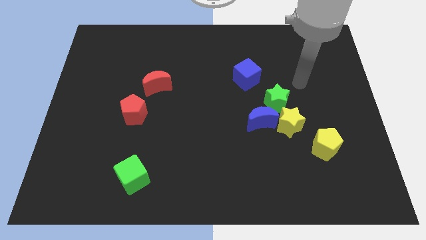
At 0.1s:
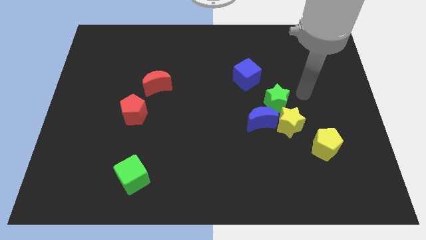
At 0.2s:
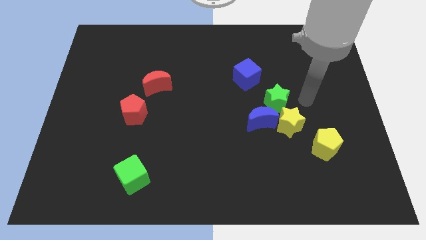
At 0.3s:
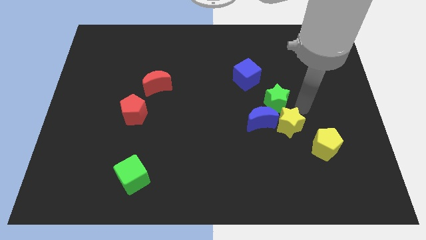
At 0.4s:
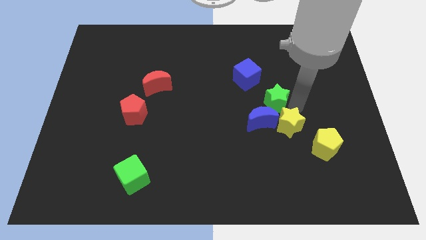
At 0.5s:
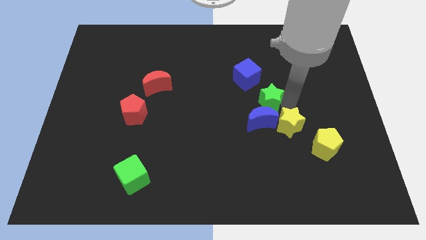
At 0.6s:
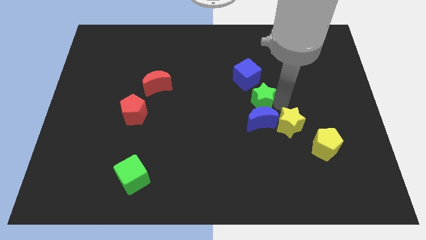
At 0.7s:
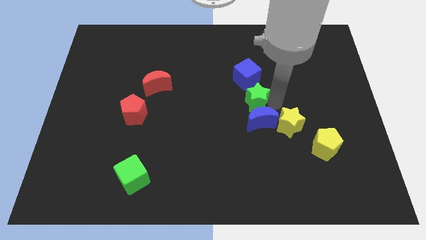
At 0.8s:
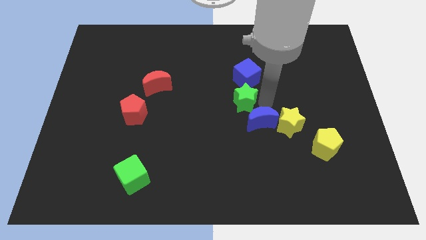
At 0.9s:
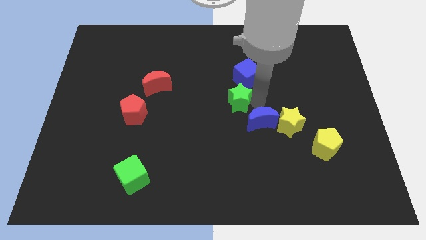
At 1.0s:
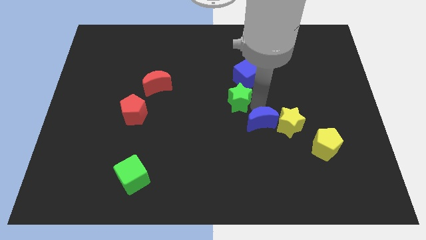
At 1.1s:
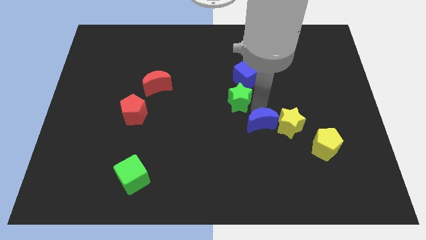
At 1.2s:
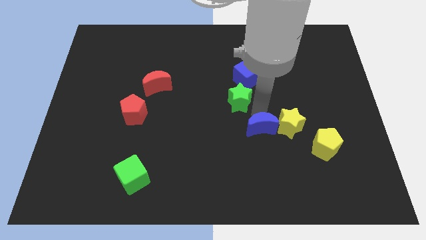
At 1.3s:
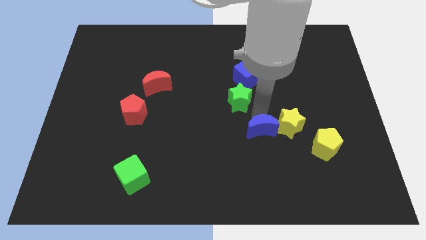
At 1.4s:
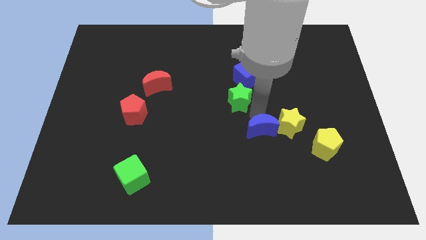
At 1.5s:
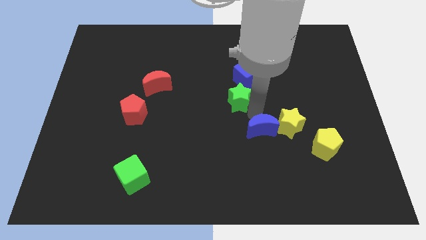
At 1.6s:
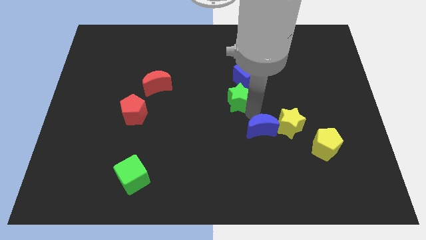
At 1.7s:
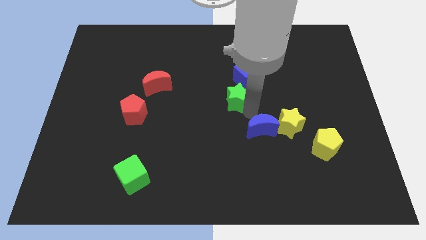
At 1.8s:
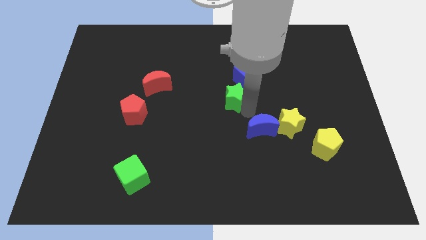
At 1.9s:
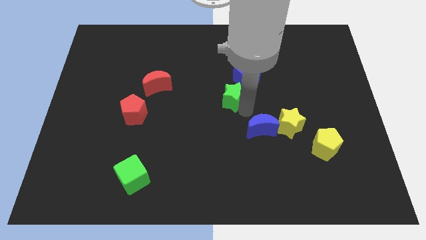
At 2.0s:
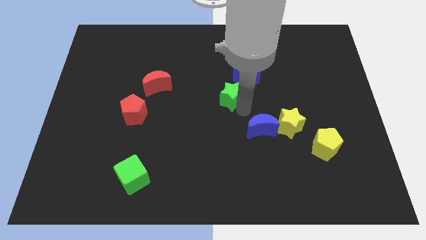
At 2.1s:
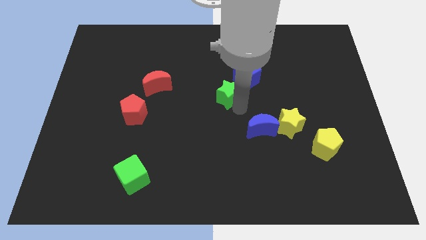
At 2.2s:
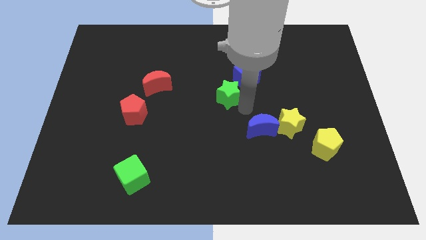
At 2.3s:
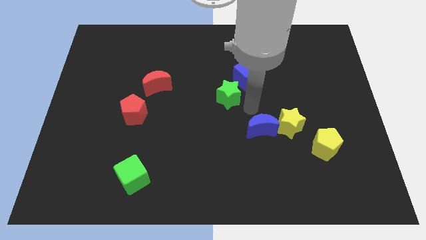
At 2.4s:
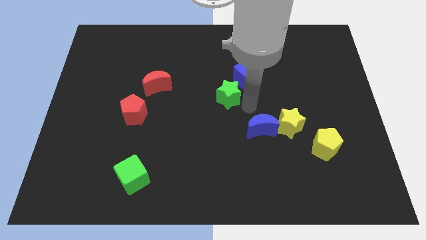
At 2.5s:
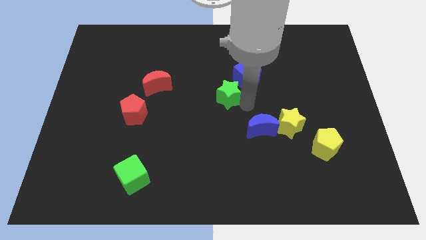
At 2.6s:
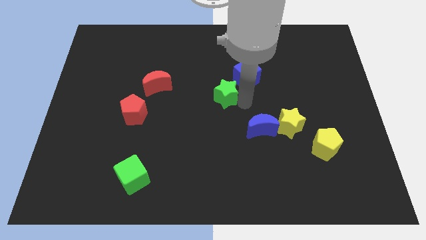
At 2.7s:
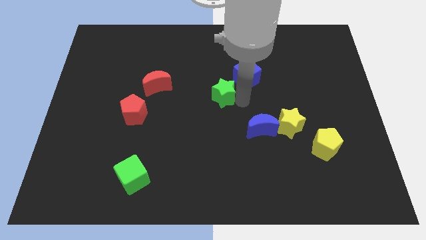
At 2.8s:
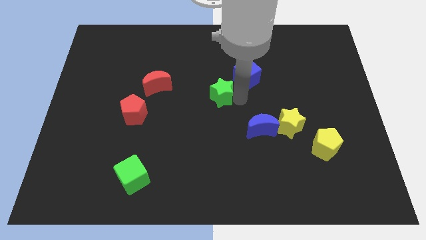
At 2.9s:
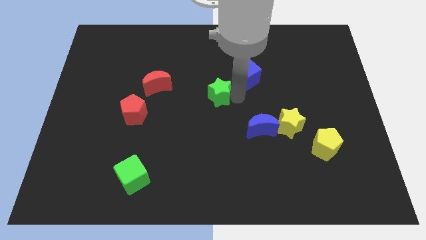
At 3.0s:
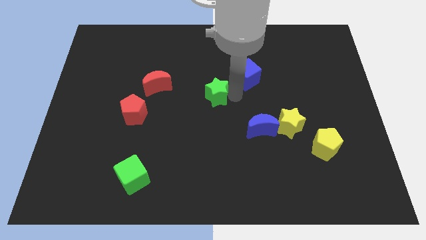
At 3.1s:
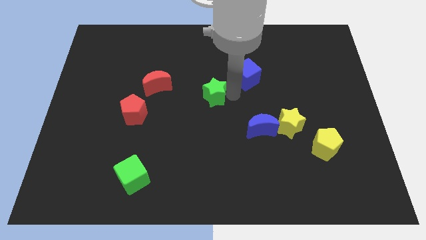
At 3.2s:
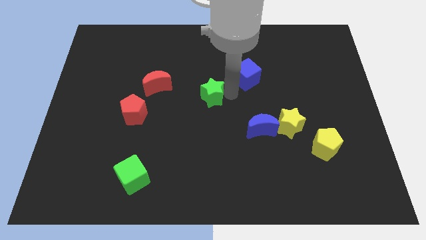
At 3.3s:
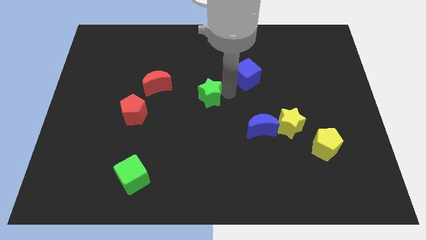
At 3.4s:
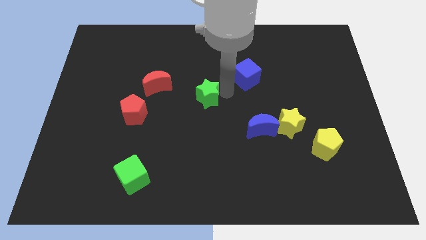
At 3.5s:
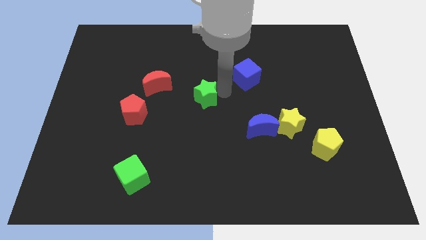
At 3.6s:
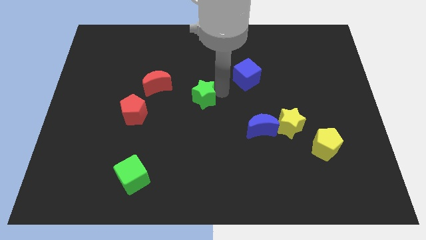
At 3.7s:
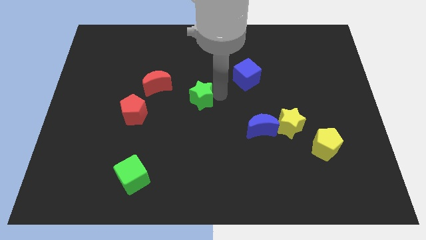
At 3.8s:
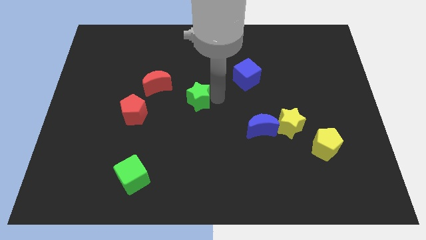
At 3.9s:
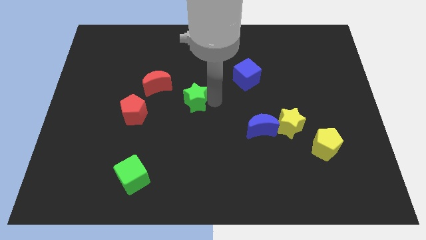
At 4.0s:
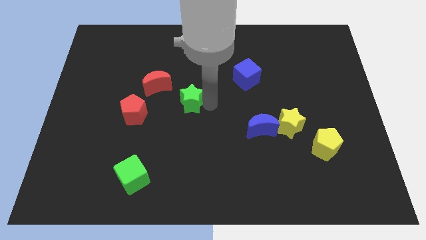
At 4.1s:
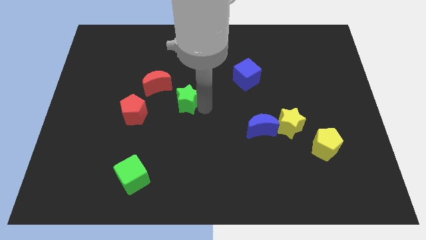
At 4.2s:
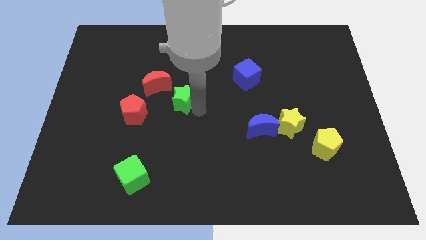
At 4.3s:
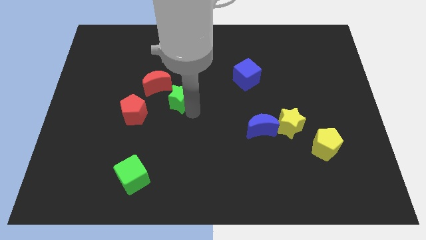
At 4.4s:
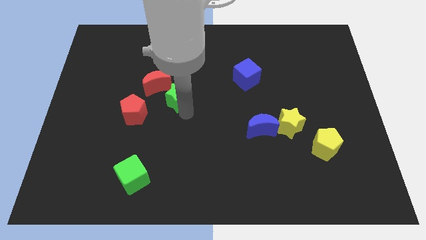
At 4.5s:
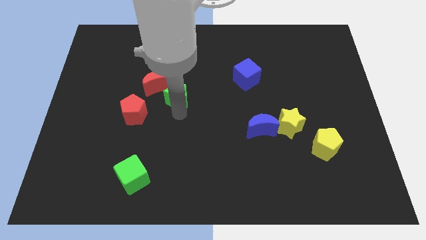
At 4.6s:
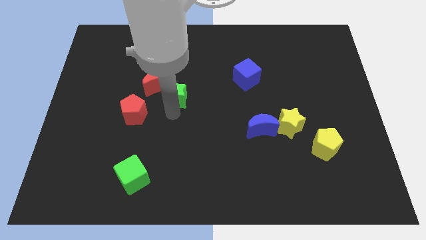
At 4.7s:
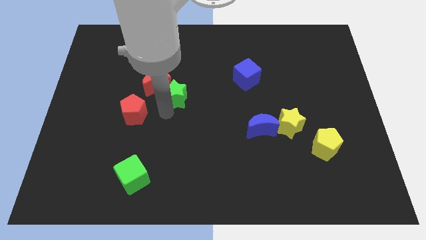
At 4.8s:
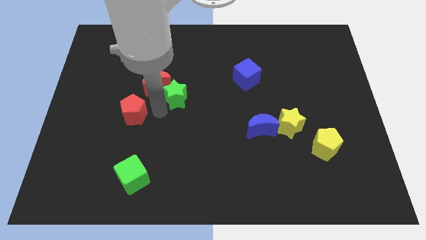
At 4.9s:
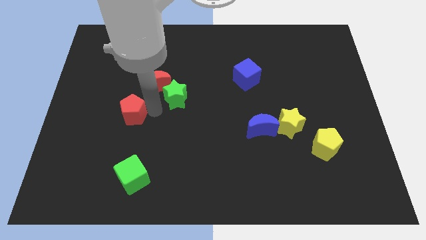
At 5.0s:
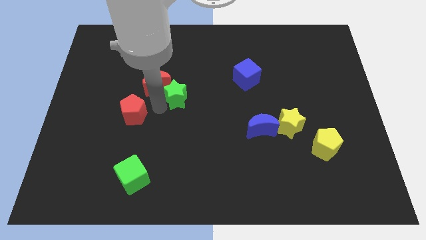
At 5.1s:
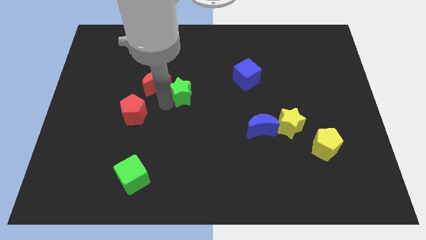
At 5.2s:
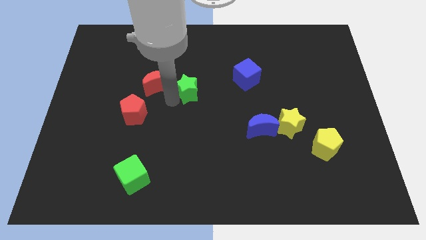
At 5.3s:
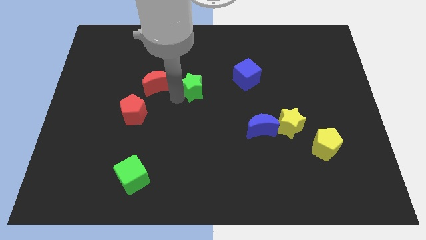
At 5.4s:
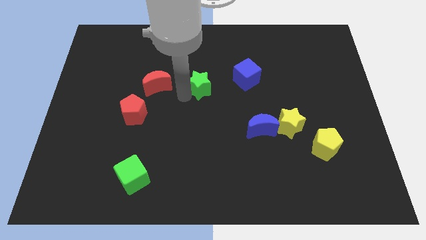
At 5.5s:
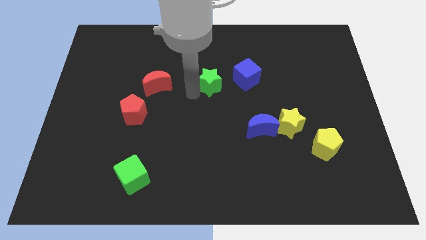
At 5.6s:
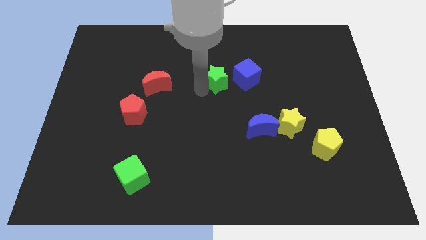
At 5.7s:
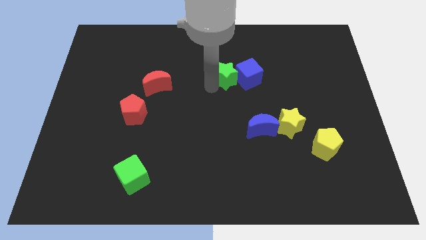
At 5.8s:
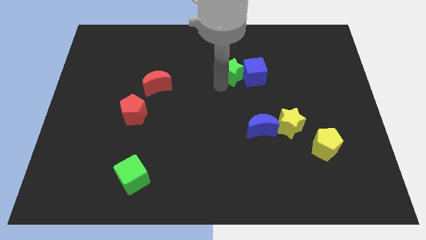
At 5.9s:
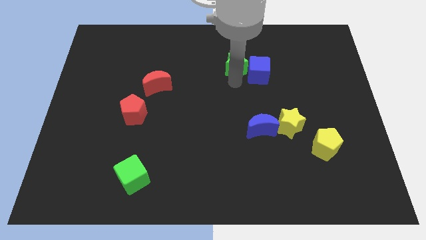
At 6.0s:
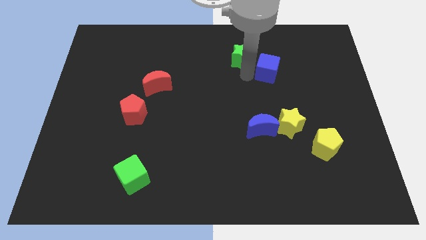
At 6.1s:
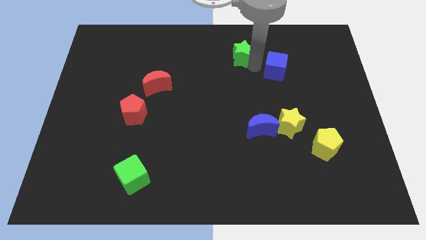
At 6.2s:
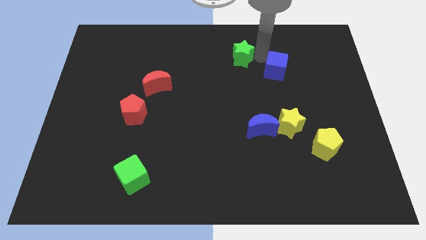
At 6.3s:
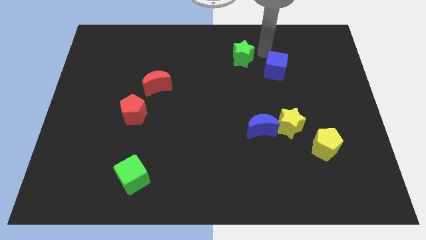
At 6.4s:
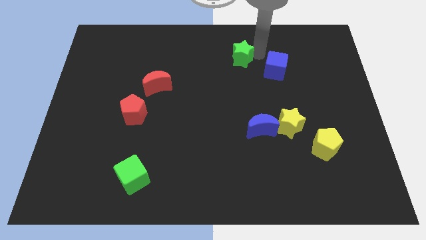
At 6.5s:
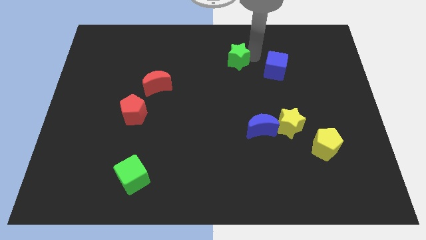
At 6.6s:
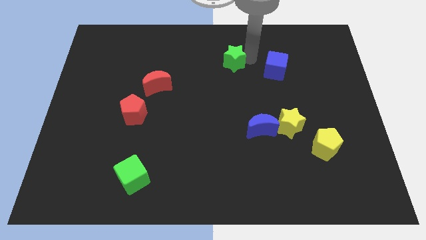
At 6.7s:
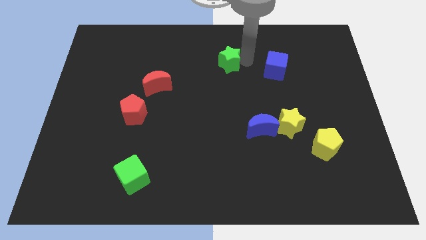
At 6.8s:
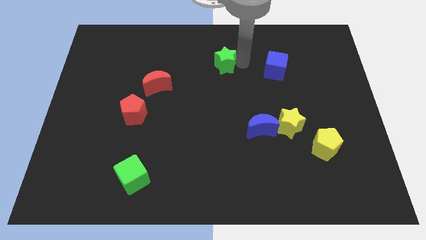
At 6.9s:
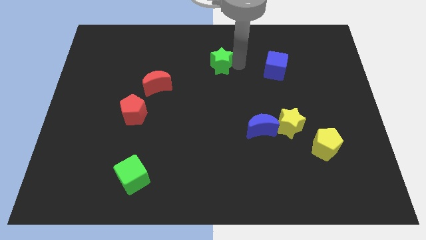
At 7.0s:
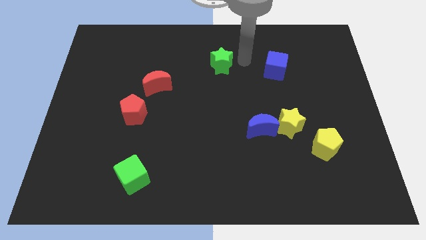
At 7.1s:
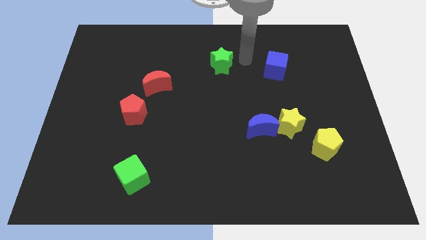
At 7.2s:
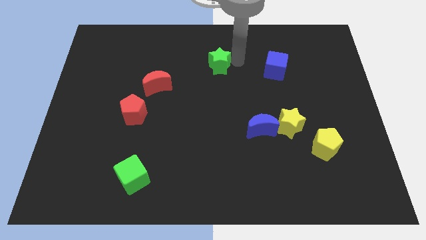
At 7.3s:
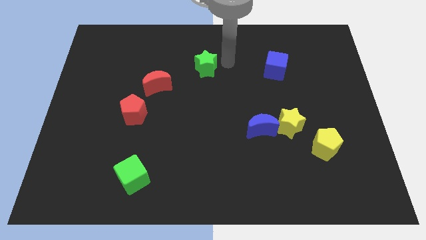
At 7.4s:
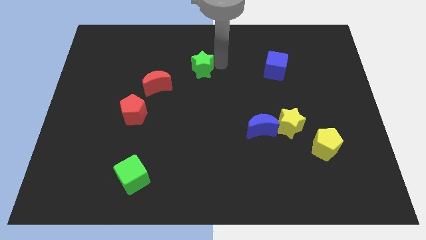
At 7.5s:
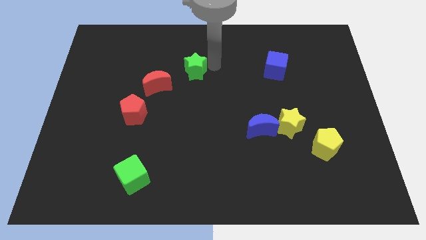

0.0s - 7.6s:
push the green star to the top right of the red moon
